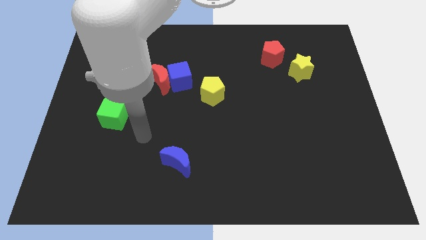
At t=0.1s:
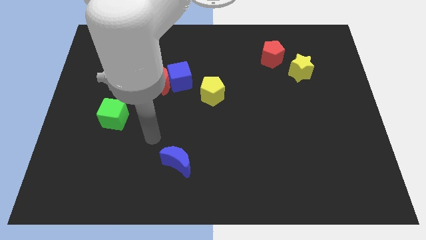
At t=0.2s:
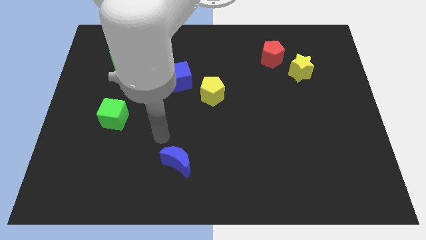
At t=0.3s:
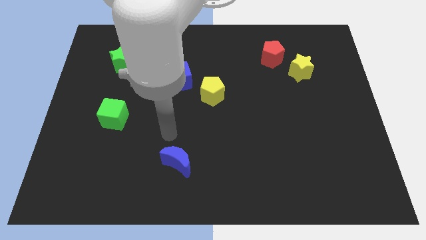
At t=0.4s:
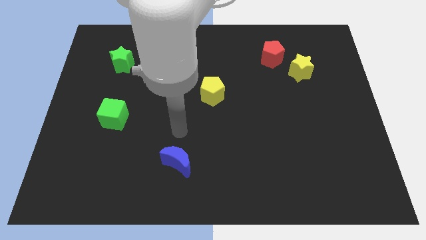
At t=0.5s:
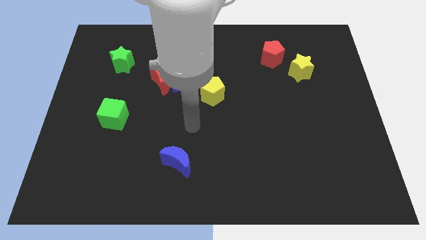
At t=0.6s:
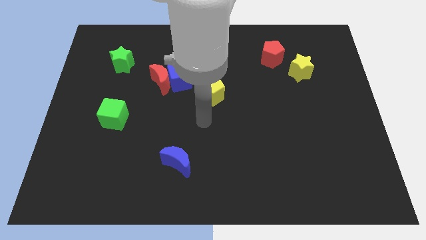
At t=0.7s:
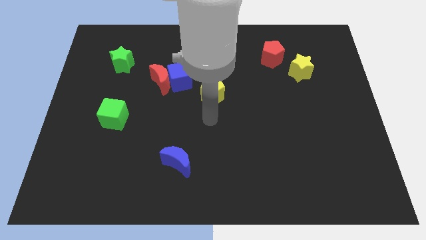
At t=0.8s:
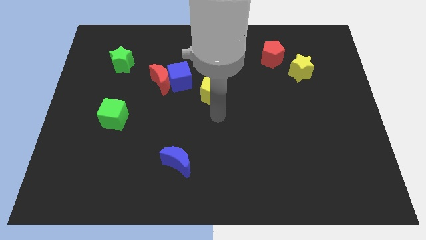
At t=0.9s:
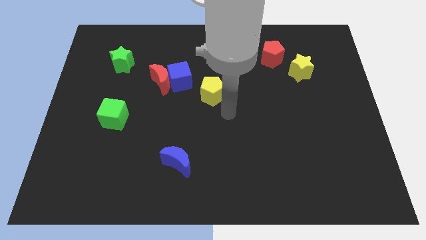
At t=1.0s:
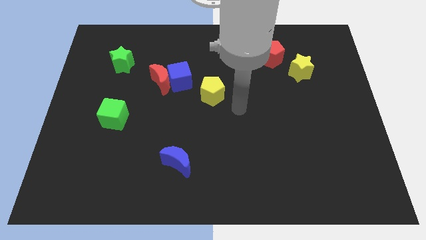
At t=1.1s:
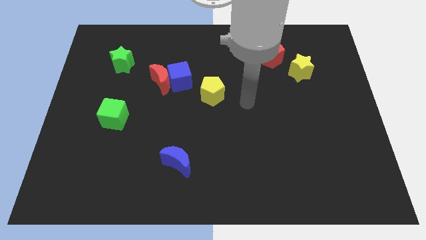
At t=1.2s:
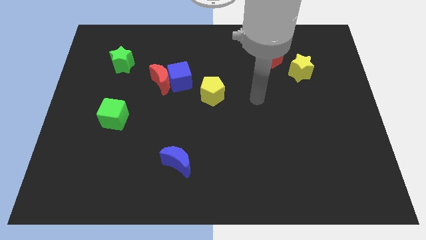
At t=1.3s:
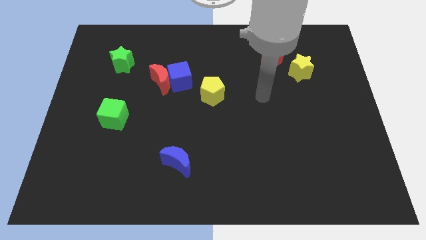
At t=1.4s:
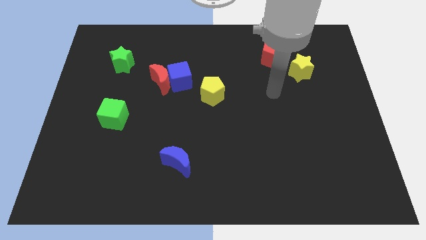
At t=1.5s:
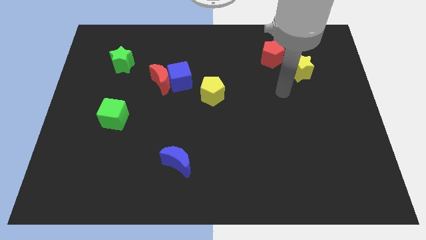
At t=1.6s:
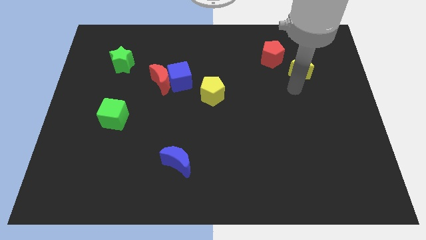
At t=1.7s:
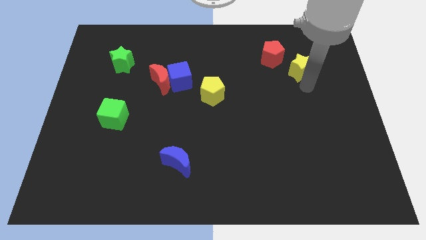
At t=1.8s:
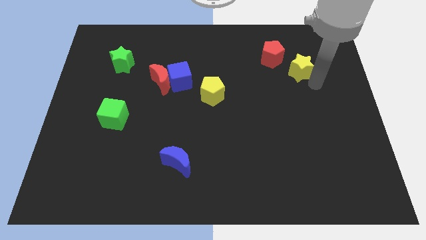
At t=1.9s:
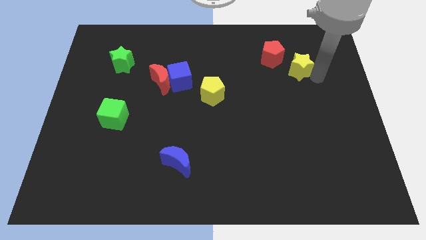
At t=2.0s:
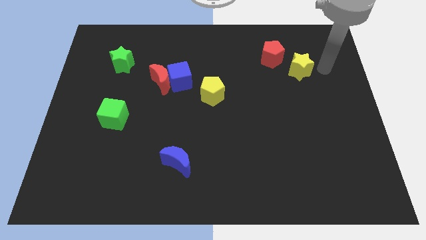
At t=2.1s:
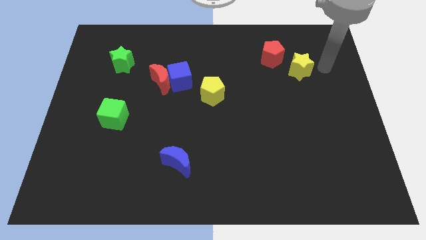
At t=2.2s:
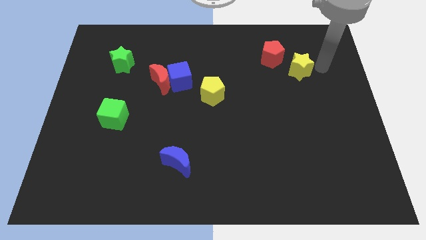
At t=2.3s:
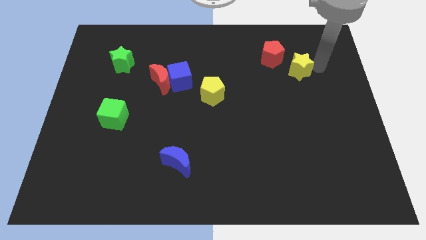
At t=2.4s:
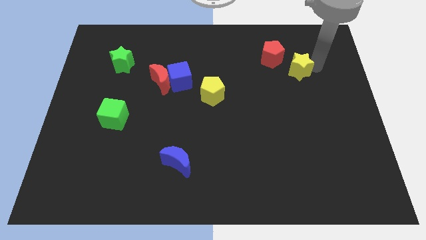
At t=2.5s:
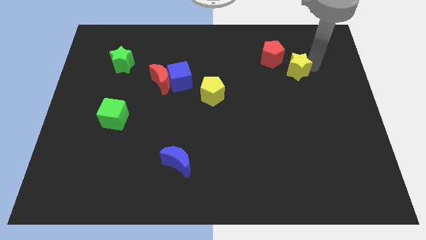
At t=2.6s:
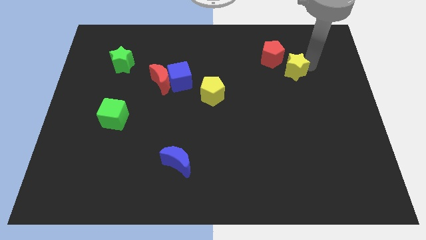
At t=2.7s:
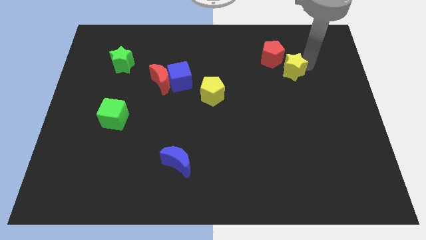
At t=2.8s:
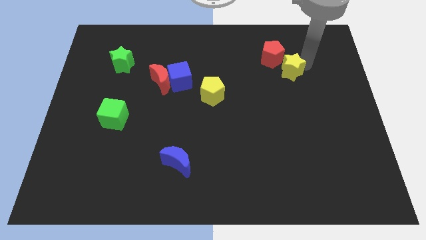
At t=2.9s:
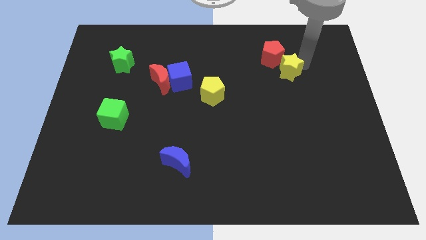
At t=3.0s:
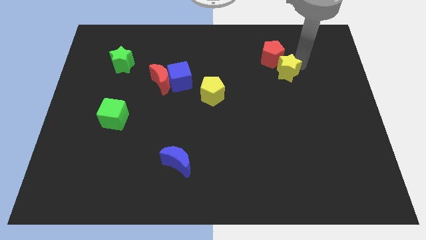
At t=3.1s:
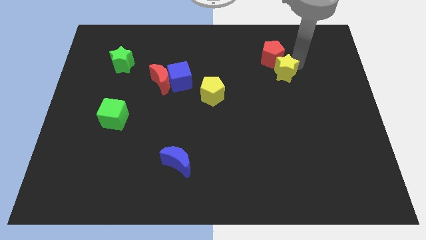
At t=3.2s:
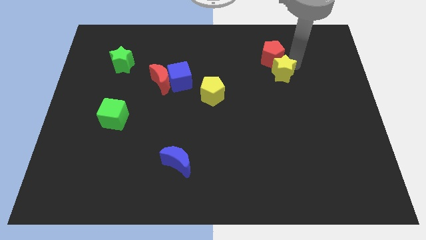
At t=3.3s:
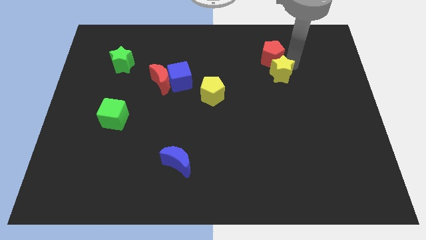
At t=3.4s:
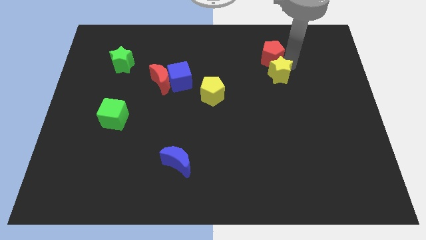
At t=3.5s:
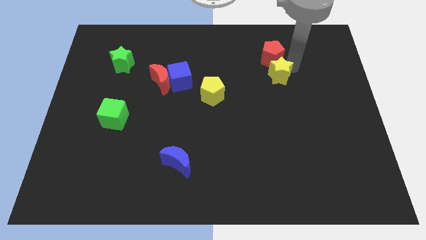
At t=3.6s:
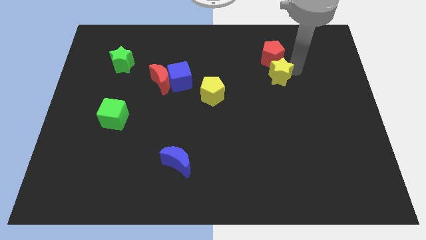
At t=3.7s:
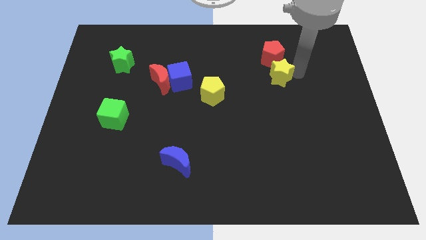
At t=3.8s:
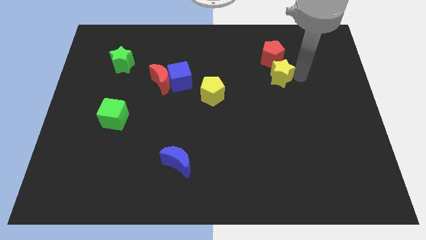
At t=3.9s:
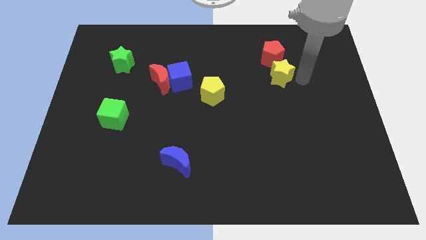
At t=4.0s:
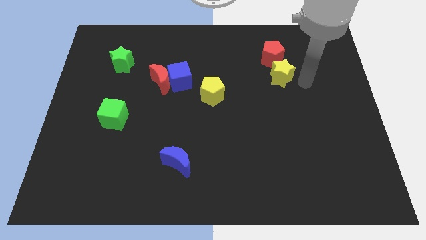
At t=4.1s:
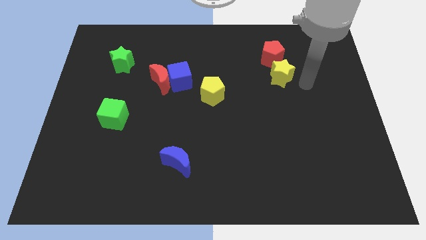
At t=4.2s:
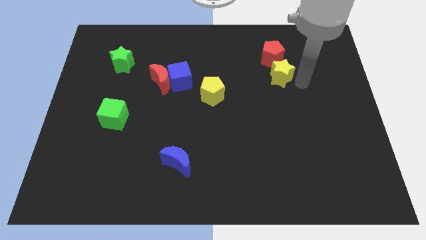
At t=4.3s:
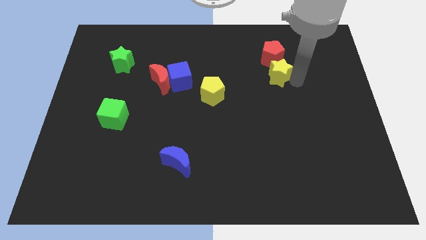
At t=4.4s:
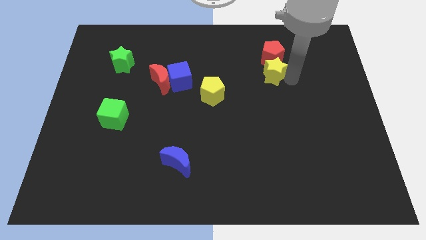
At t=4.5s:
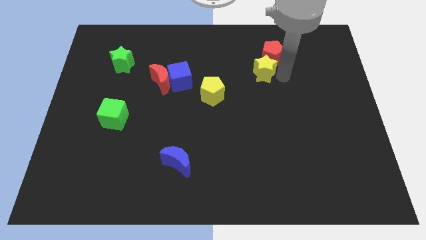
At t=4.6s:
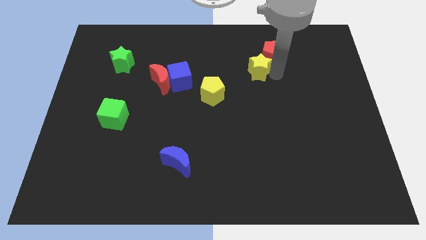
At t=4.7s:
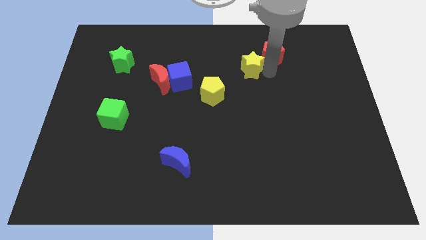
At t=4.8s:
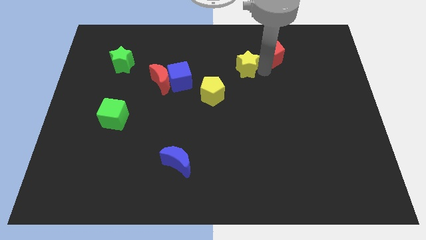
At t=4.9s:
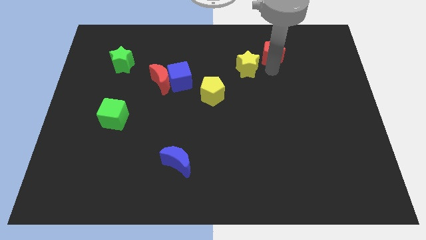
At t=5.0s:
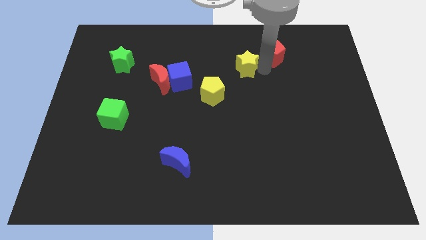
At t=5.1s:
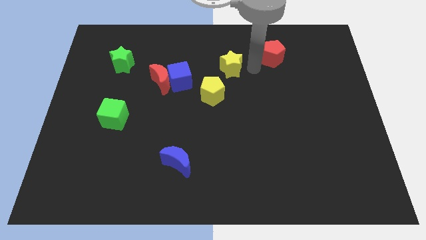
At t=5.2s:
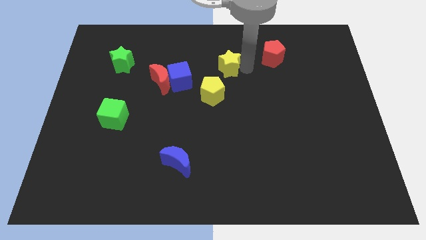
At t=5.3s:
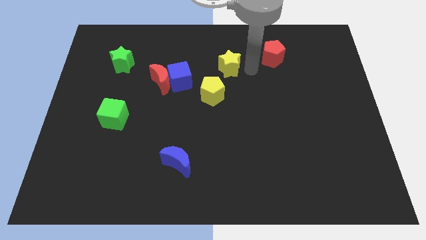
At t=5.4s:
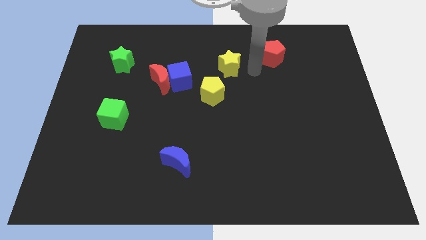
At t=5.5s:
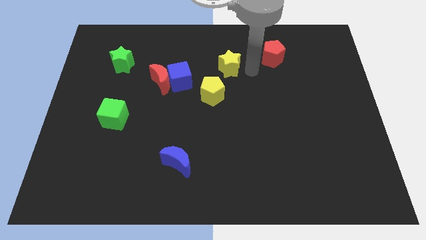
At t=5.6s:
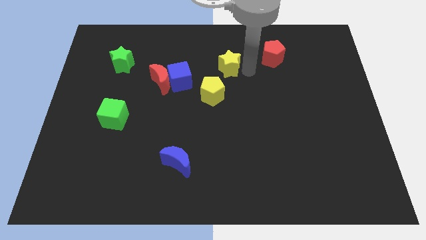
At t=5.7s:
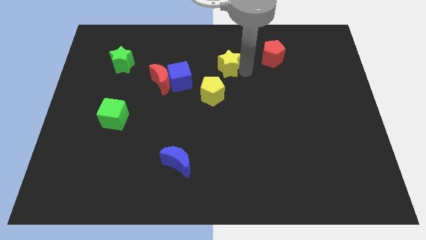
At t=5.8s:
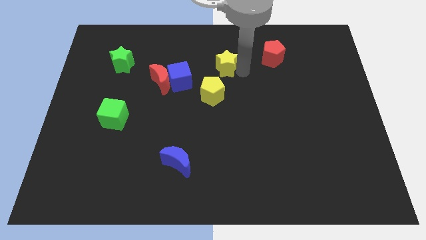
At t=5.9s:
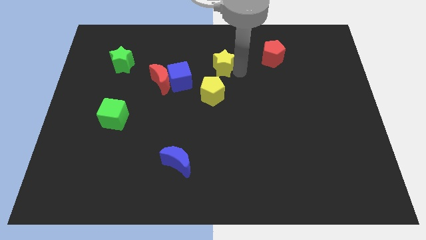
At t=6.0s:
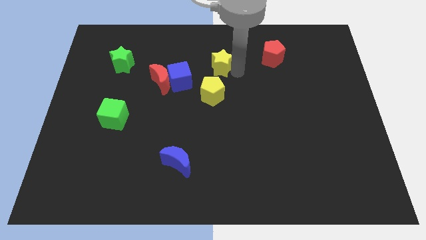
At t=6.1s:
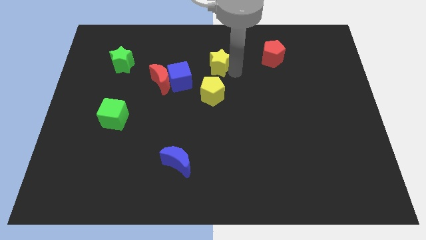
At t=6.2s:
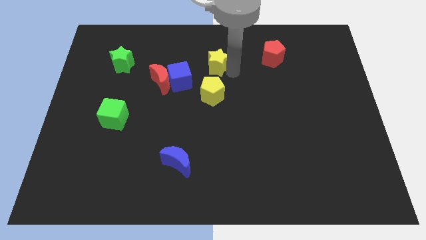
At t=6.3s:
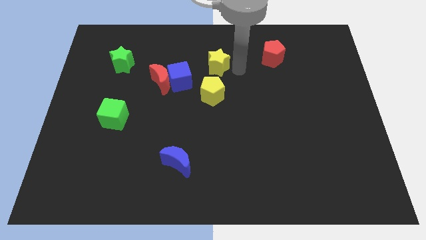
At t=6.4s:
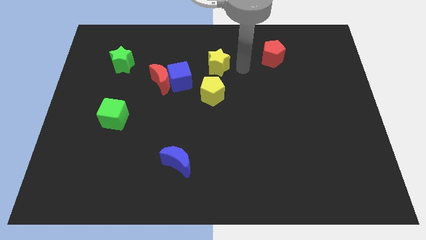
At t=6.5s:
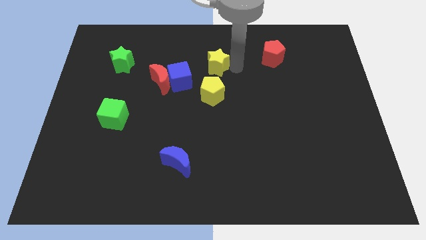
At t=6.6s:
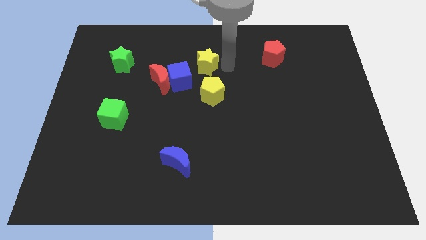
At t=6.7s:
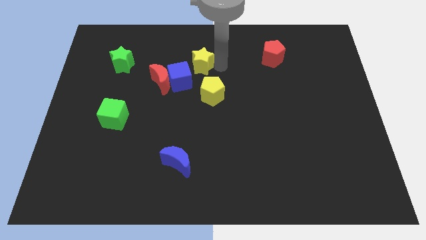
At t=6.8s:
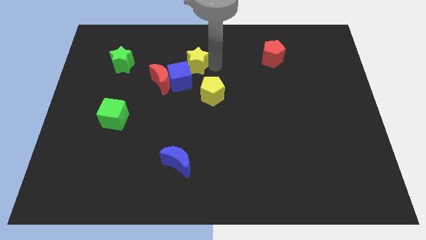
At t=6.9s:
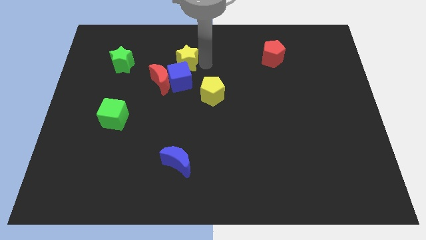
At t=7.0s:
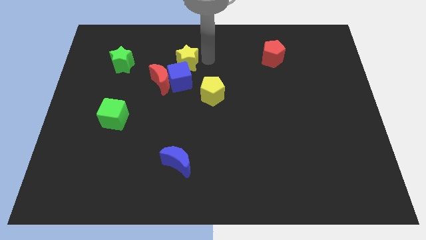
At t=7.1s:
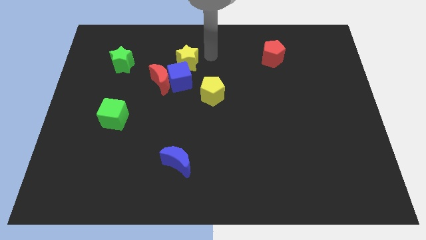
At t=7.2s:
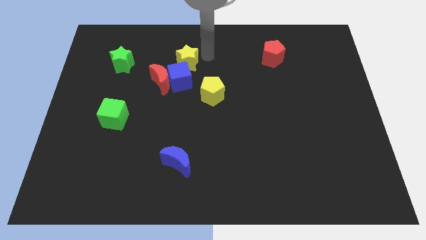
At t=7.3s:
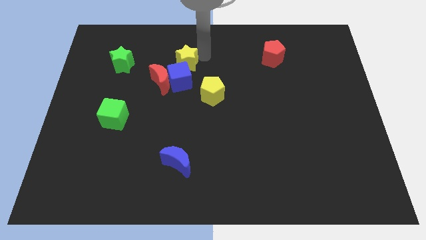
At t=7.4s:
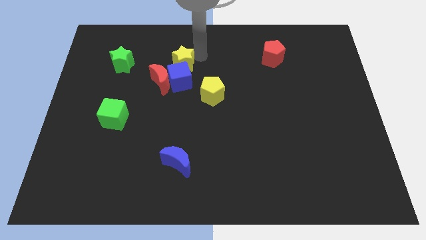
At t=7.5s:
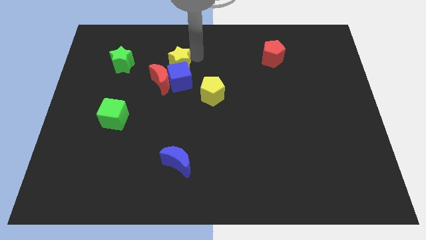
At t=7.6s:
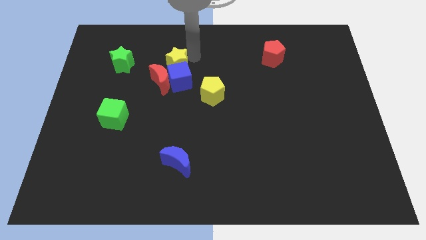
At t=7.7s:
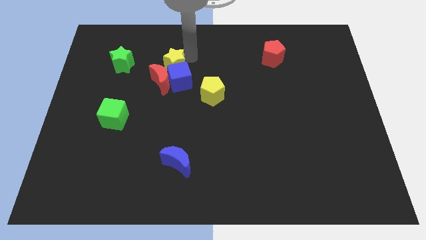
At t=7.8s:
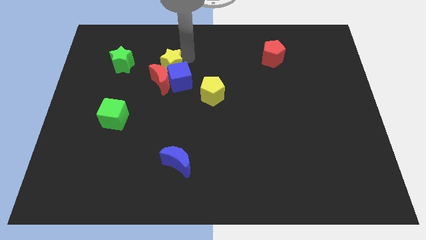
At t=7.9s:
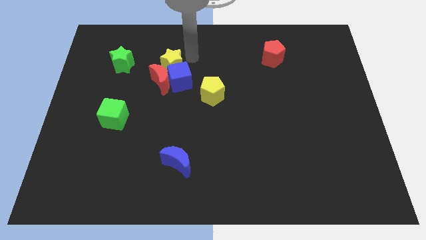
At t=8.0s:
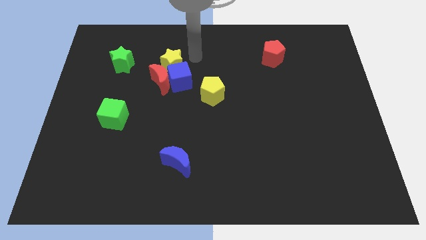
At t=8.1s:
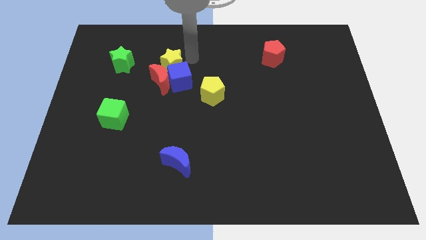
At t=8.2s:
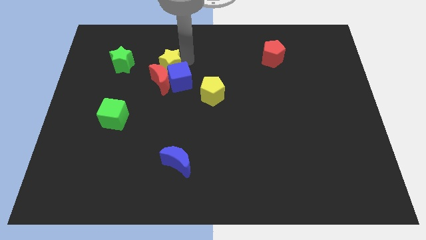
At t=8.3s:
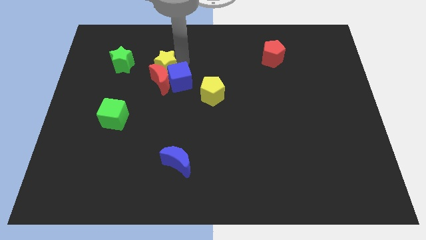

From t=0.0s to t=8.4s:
put the yellow star to the left side of the blue cube
